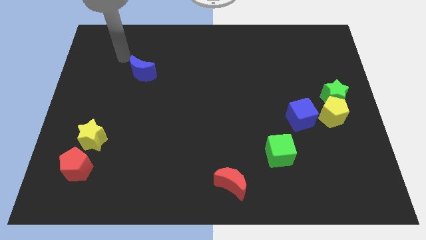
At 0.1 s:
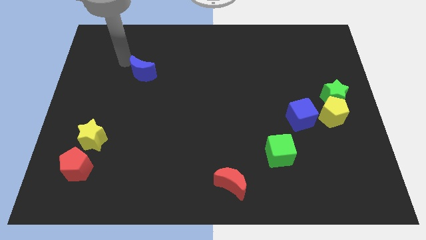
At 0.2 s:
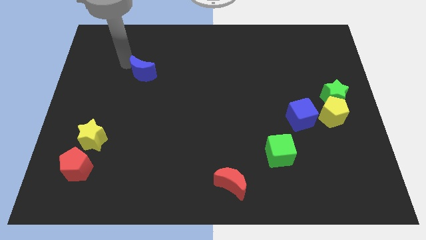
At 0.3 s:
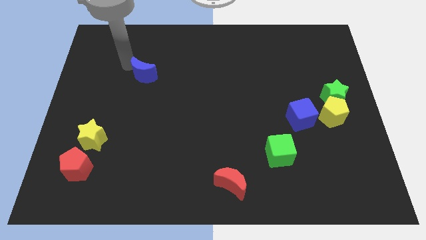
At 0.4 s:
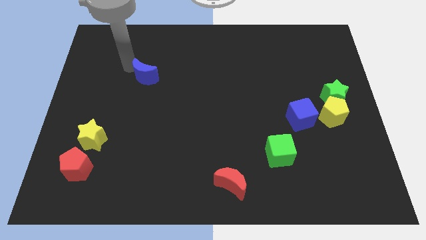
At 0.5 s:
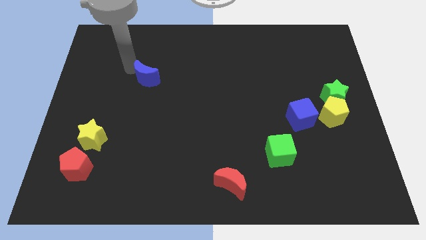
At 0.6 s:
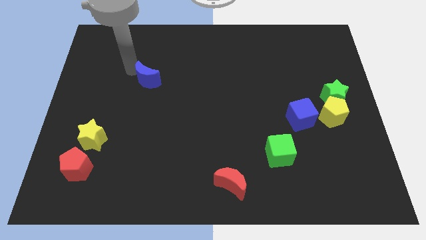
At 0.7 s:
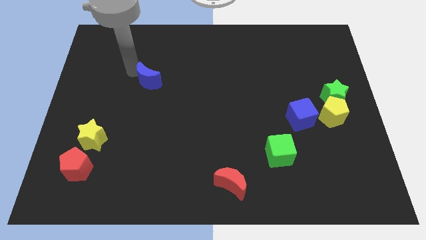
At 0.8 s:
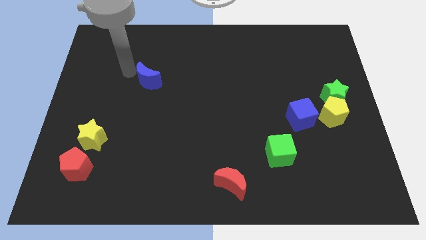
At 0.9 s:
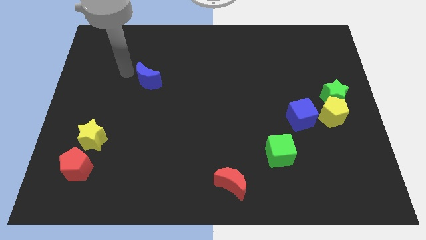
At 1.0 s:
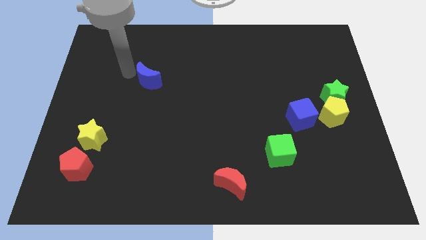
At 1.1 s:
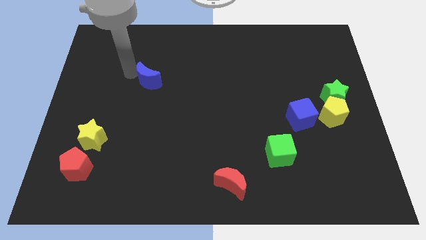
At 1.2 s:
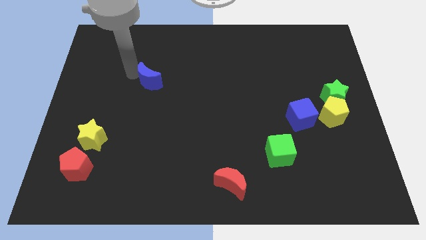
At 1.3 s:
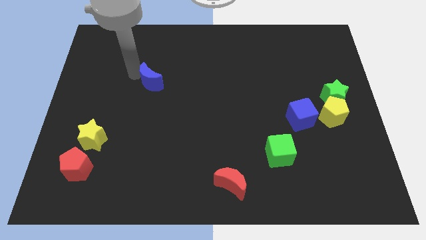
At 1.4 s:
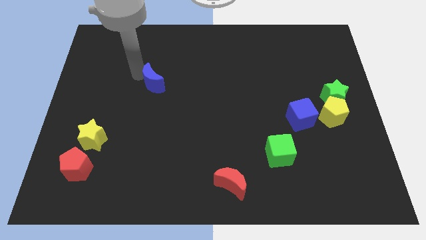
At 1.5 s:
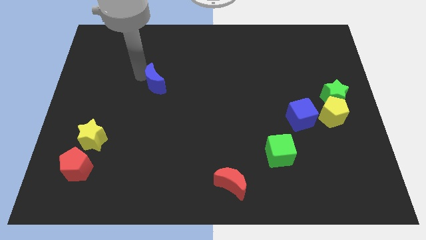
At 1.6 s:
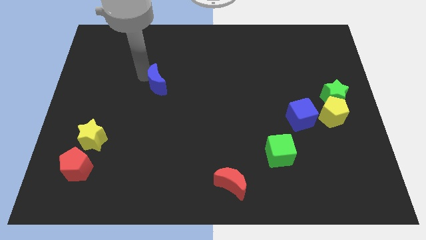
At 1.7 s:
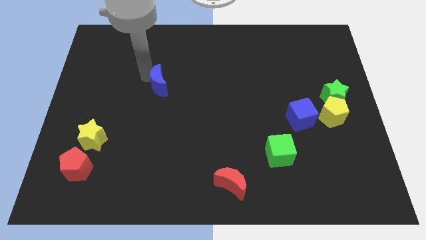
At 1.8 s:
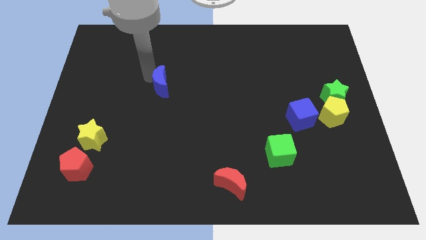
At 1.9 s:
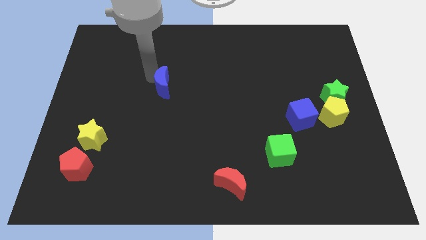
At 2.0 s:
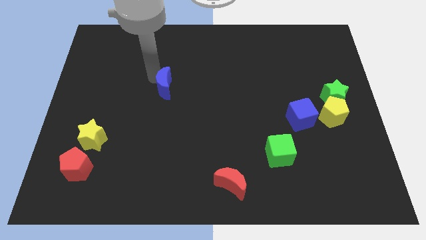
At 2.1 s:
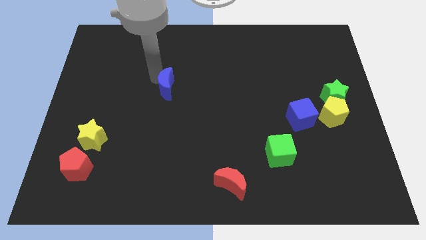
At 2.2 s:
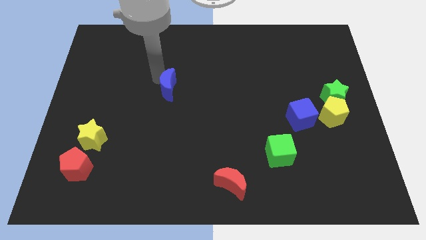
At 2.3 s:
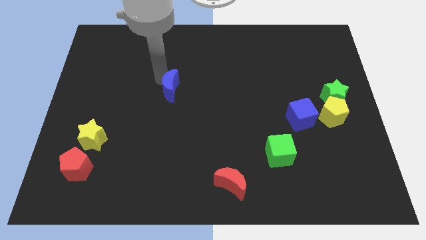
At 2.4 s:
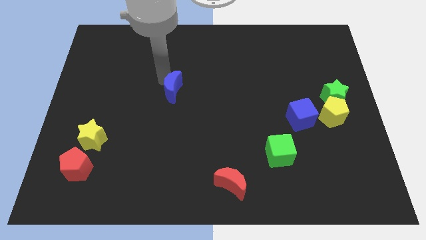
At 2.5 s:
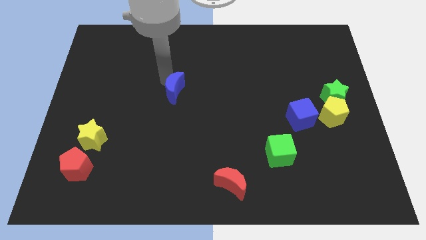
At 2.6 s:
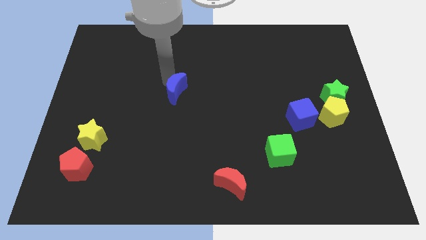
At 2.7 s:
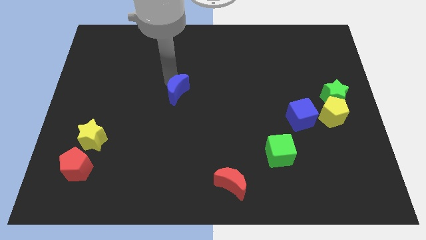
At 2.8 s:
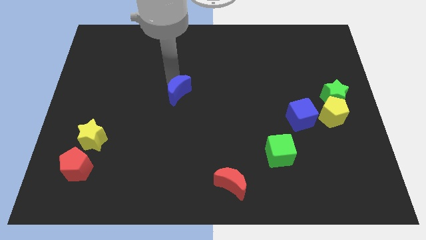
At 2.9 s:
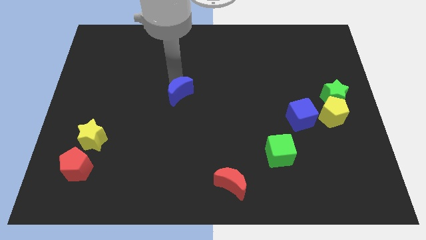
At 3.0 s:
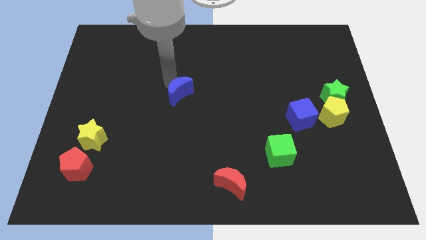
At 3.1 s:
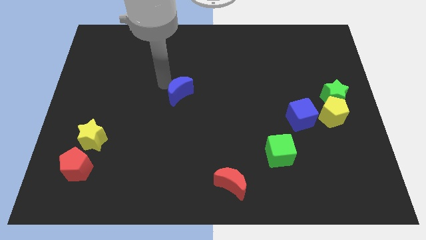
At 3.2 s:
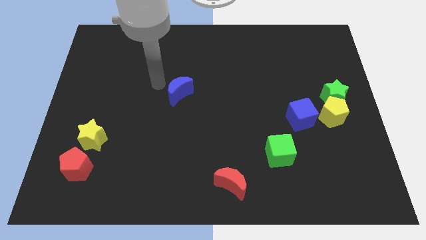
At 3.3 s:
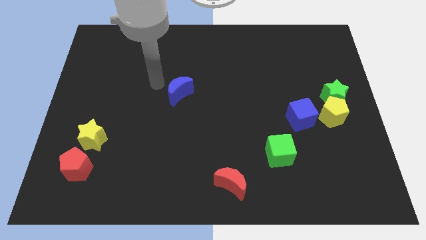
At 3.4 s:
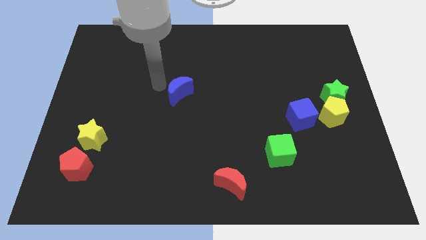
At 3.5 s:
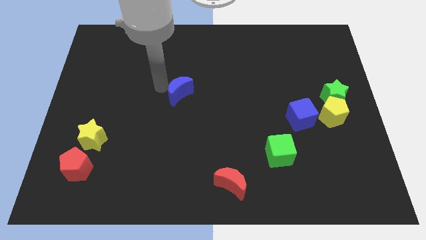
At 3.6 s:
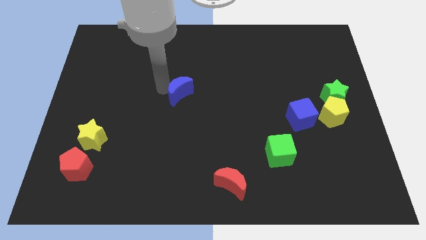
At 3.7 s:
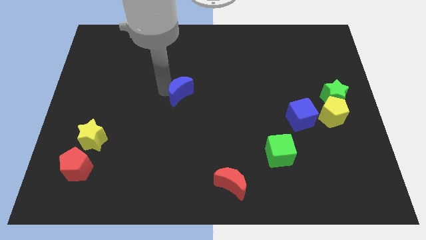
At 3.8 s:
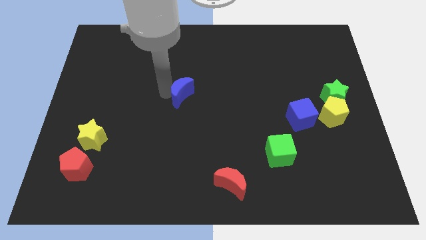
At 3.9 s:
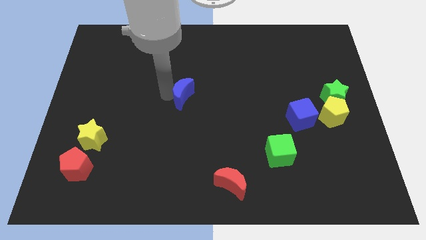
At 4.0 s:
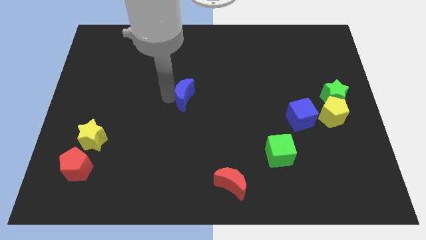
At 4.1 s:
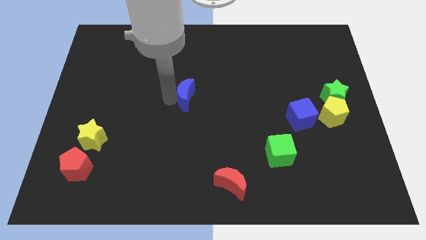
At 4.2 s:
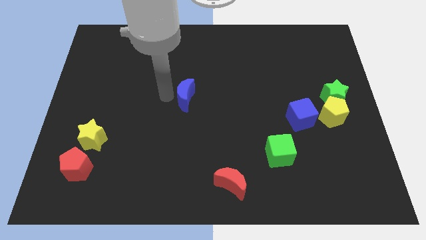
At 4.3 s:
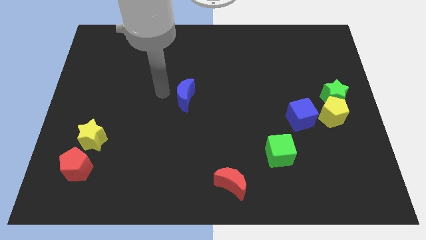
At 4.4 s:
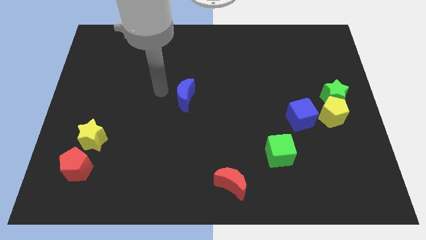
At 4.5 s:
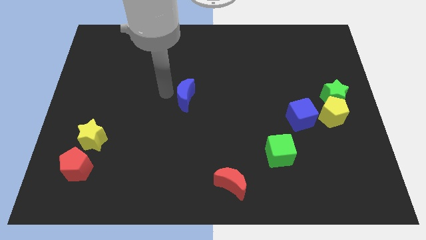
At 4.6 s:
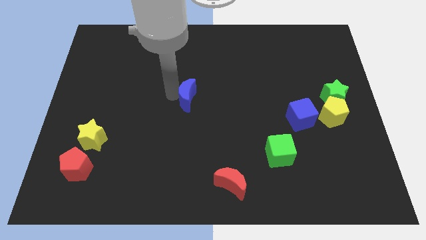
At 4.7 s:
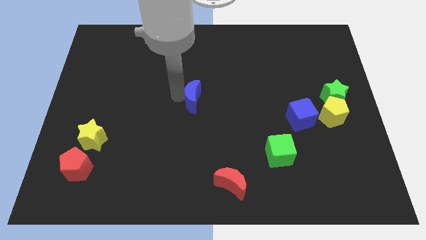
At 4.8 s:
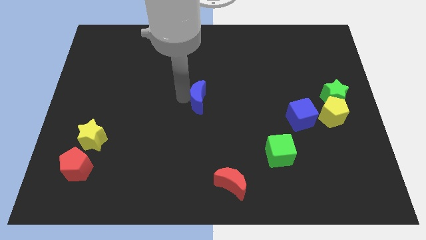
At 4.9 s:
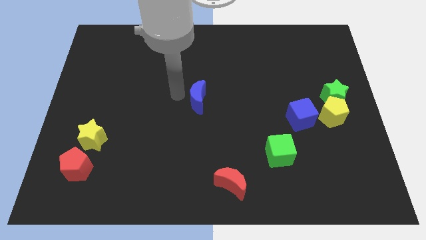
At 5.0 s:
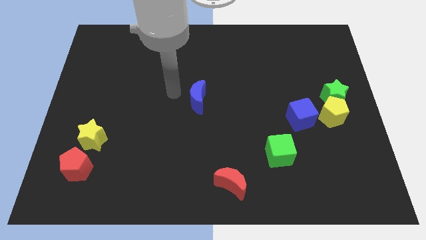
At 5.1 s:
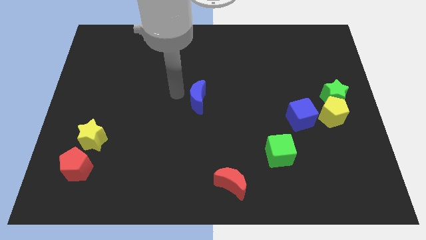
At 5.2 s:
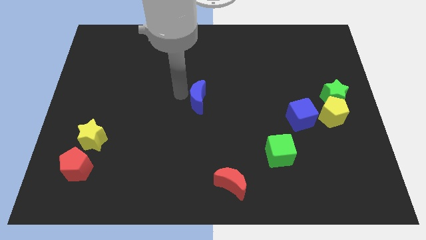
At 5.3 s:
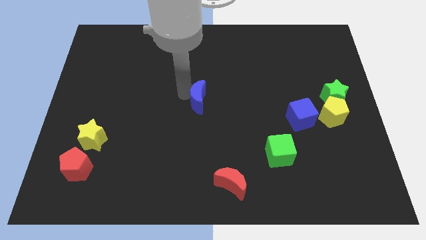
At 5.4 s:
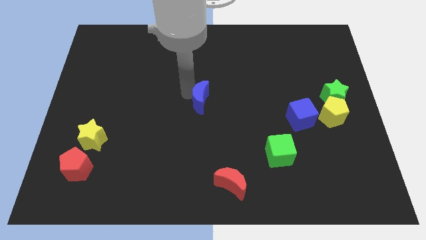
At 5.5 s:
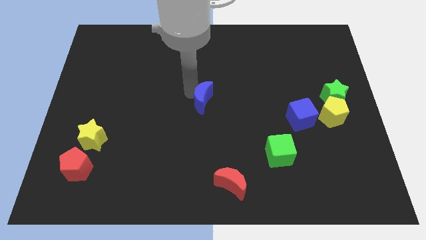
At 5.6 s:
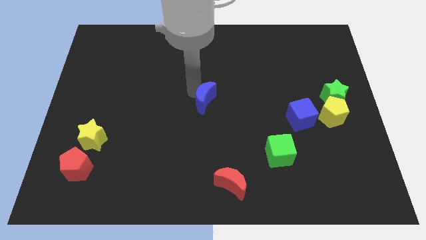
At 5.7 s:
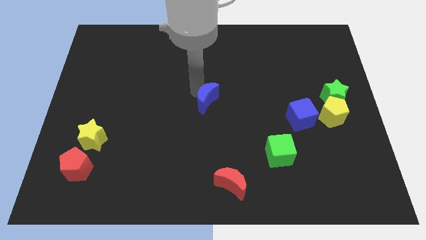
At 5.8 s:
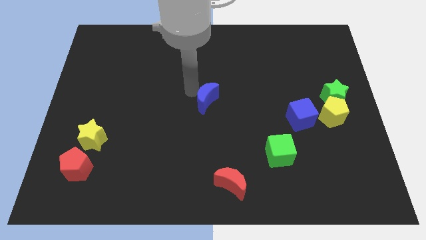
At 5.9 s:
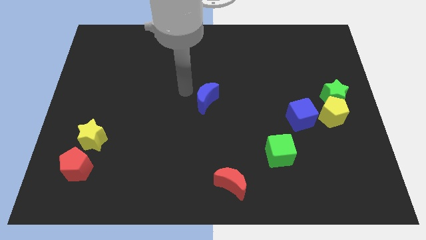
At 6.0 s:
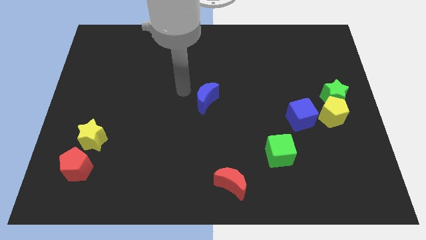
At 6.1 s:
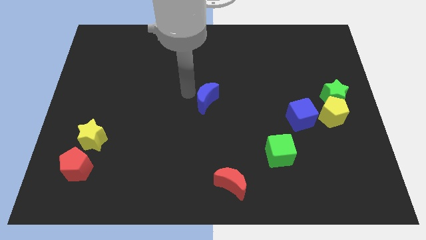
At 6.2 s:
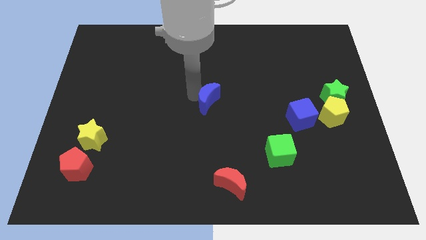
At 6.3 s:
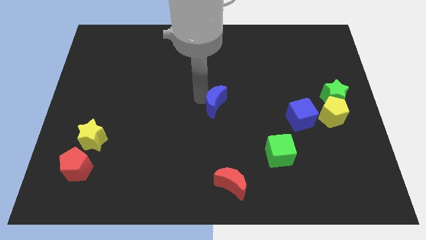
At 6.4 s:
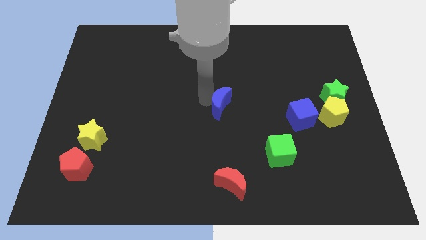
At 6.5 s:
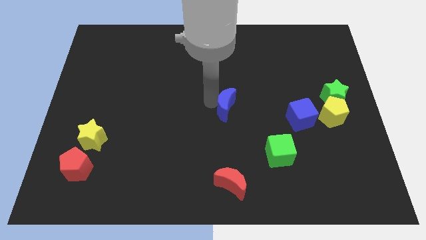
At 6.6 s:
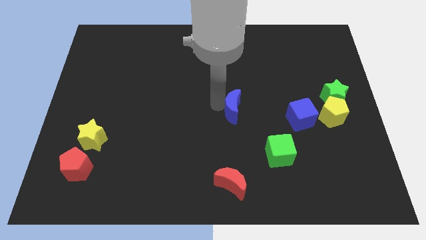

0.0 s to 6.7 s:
put the blue moon left of the blue cube
